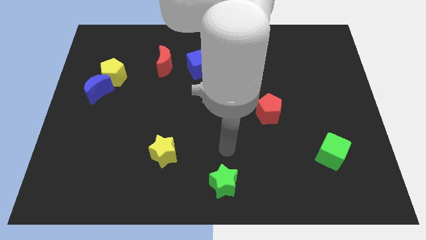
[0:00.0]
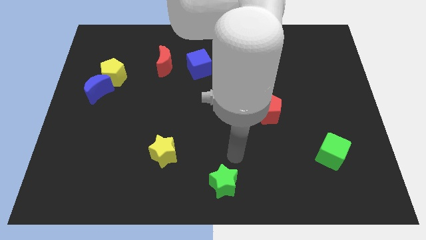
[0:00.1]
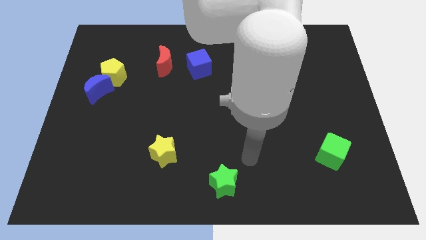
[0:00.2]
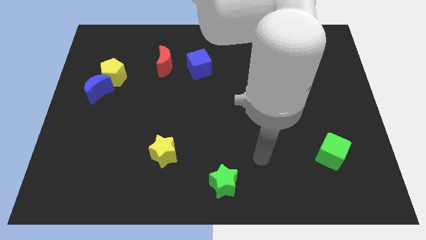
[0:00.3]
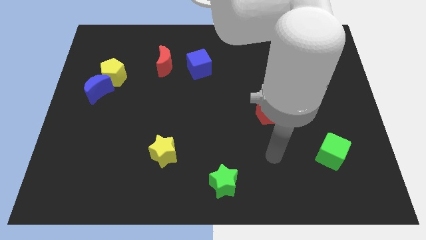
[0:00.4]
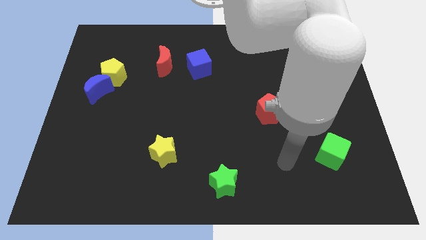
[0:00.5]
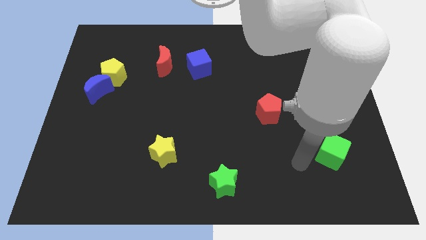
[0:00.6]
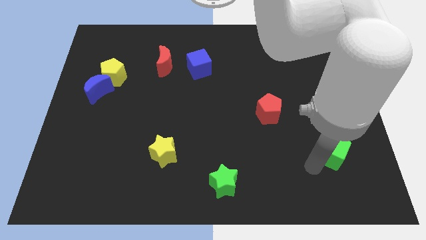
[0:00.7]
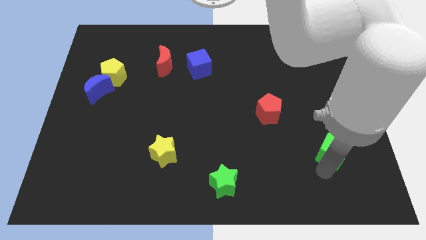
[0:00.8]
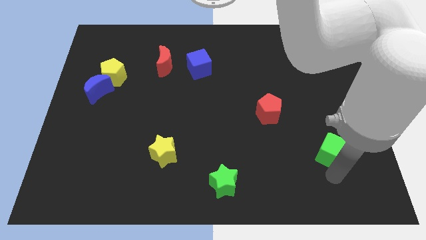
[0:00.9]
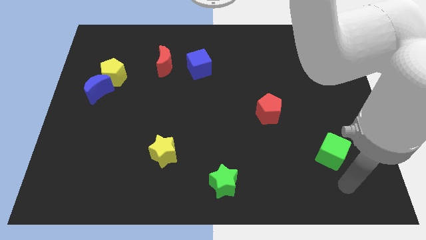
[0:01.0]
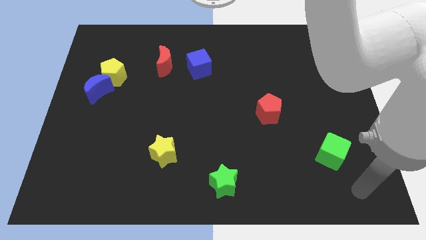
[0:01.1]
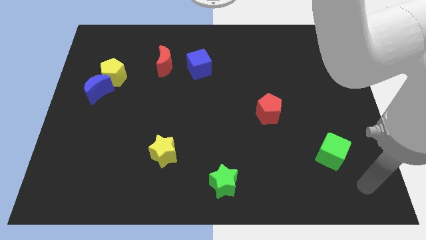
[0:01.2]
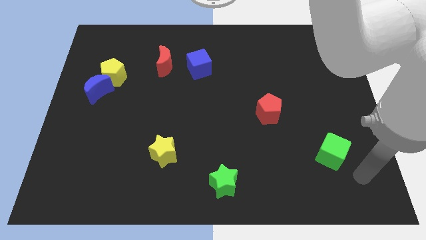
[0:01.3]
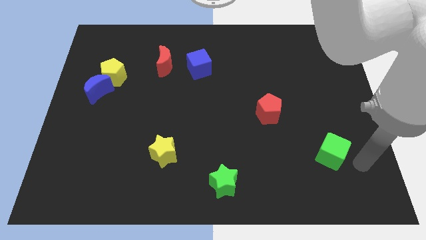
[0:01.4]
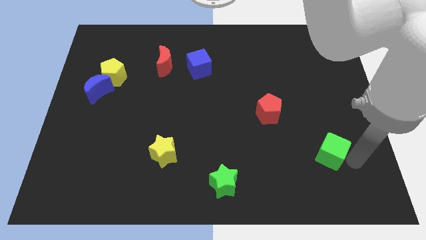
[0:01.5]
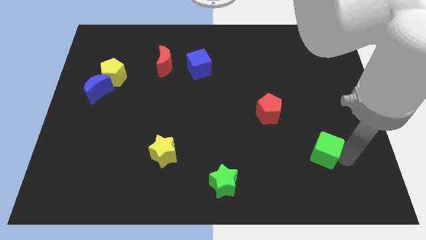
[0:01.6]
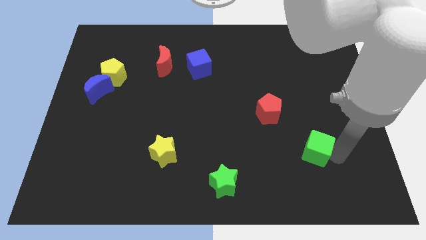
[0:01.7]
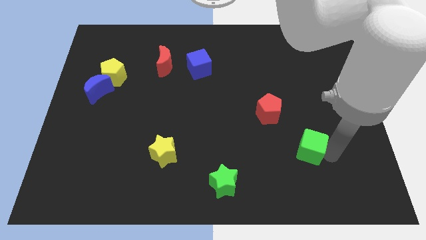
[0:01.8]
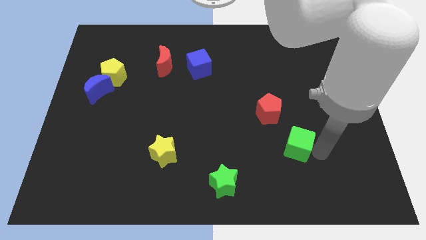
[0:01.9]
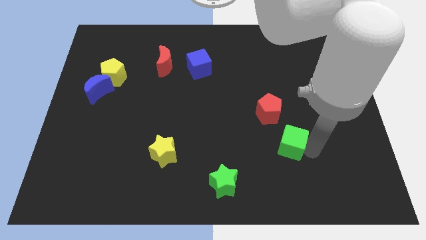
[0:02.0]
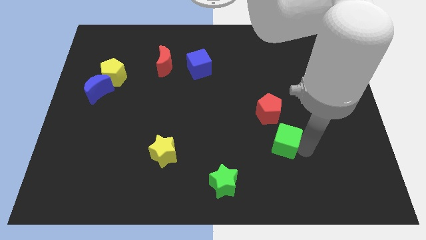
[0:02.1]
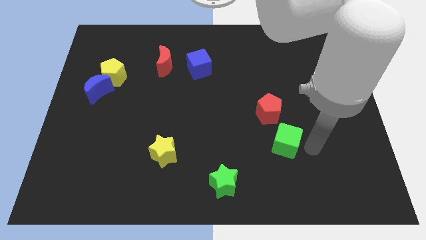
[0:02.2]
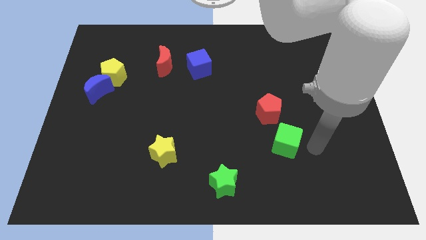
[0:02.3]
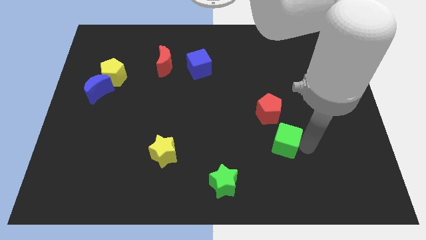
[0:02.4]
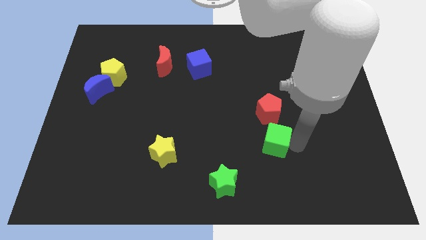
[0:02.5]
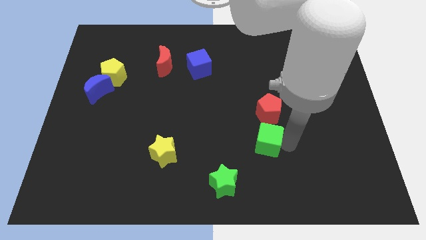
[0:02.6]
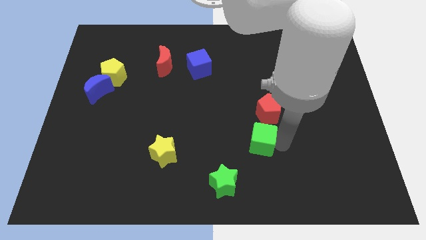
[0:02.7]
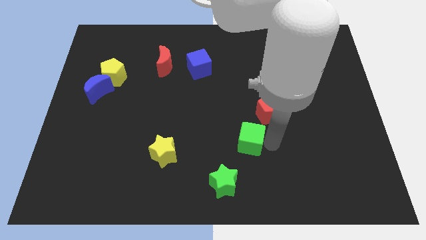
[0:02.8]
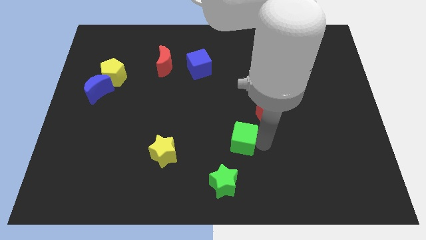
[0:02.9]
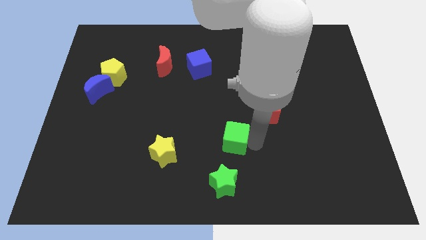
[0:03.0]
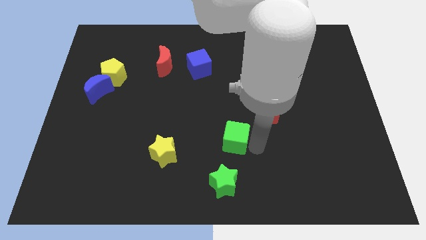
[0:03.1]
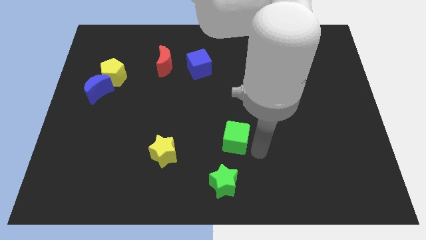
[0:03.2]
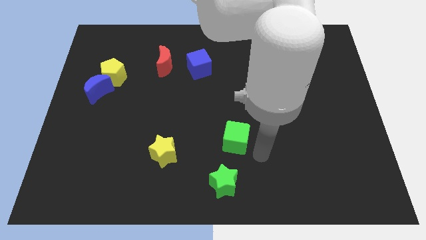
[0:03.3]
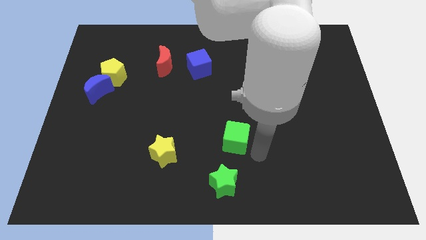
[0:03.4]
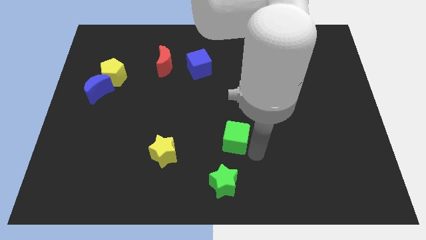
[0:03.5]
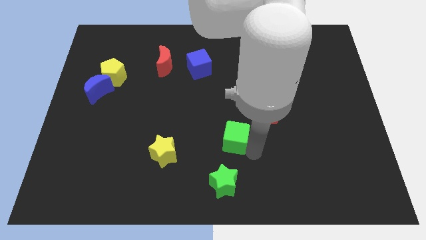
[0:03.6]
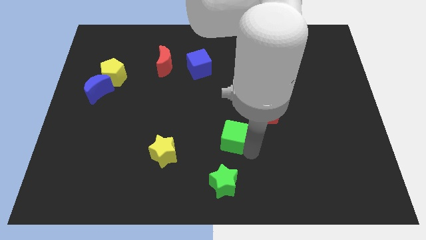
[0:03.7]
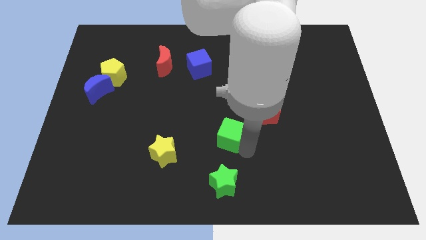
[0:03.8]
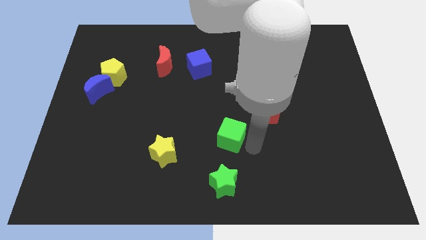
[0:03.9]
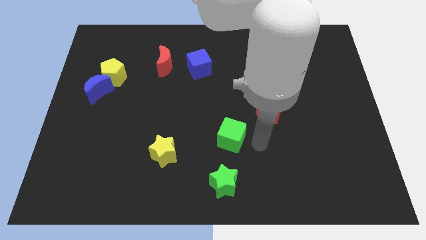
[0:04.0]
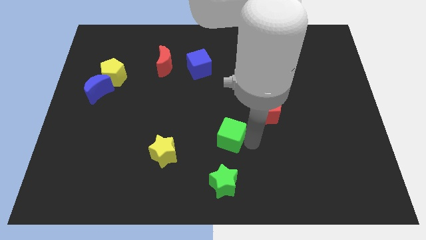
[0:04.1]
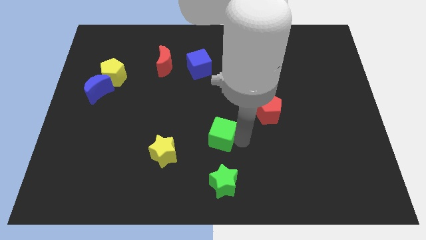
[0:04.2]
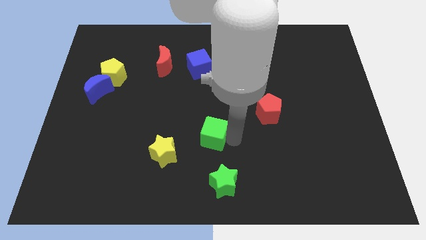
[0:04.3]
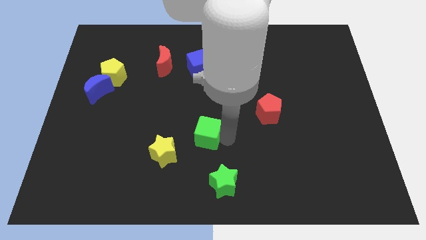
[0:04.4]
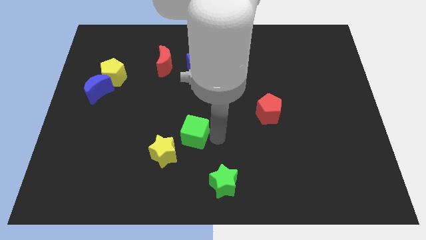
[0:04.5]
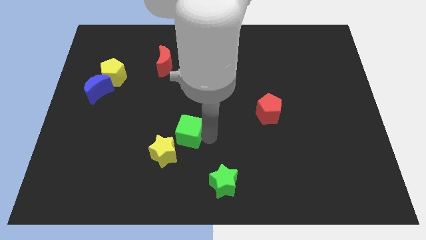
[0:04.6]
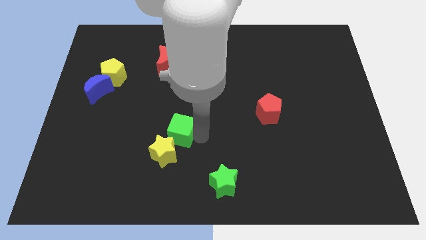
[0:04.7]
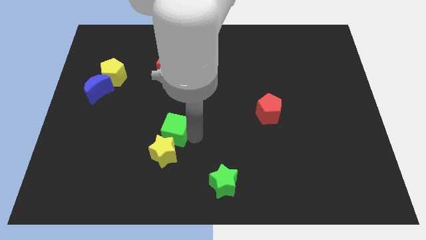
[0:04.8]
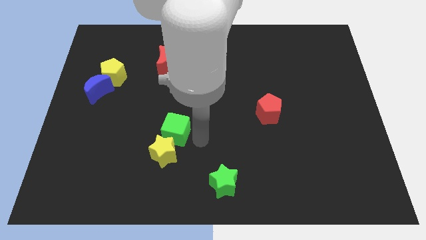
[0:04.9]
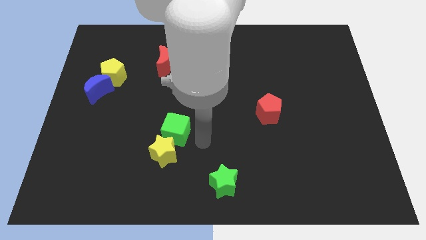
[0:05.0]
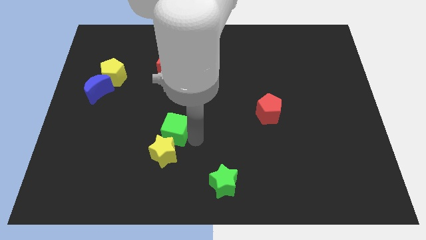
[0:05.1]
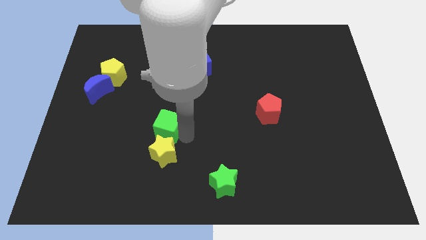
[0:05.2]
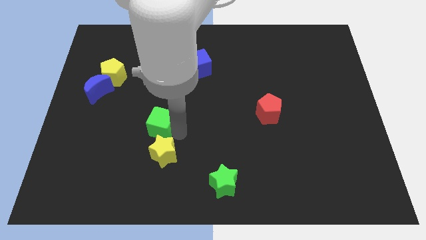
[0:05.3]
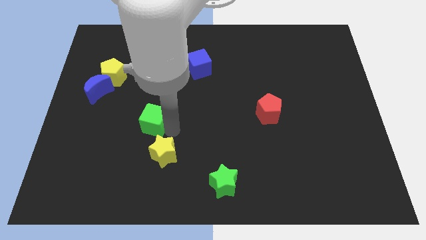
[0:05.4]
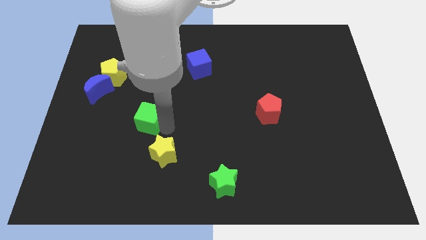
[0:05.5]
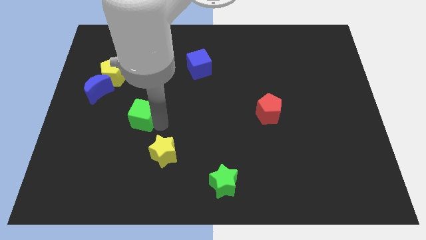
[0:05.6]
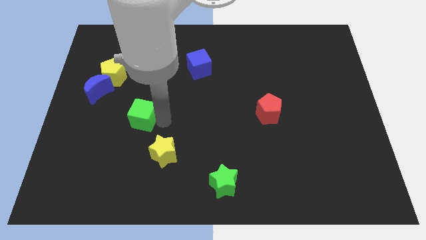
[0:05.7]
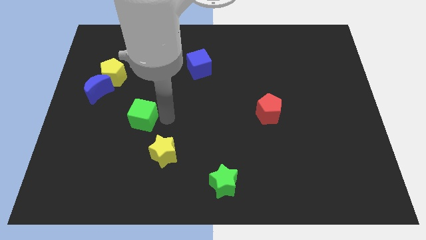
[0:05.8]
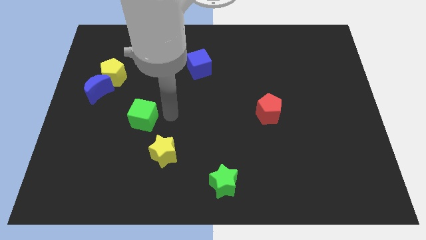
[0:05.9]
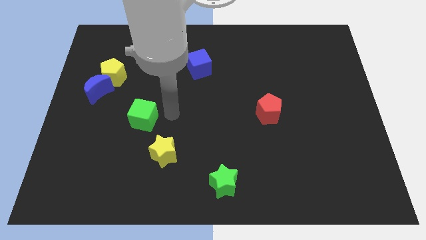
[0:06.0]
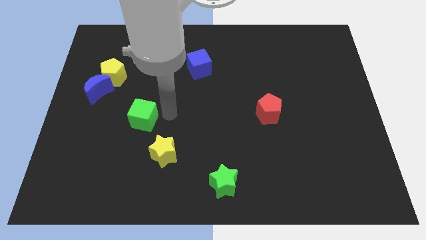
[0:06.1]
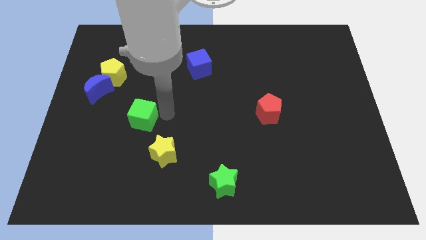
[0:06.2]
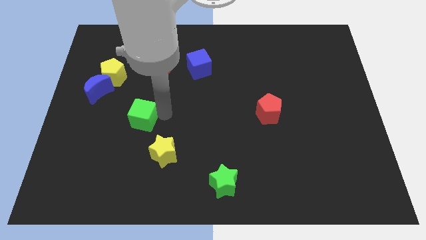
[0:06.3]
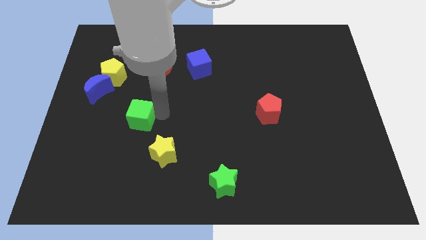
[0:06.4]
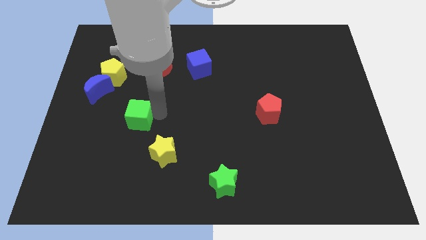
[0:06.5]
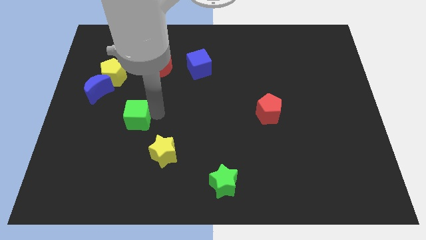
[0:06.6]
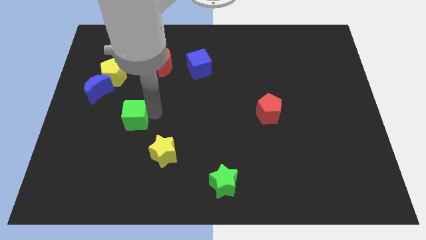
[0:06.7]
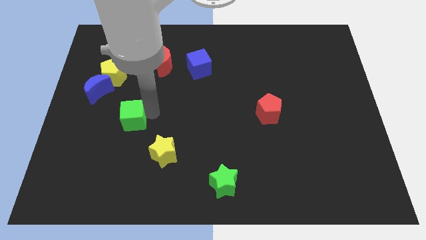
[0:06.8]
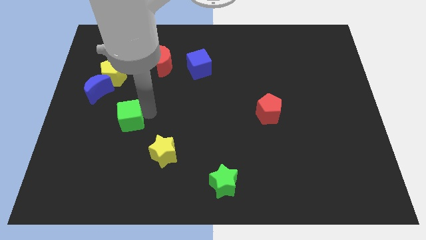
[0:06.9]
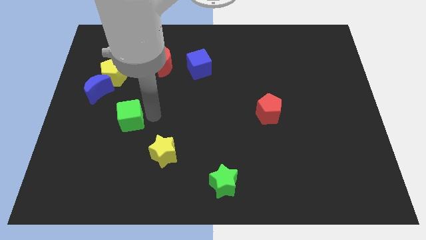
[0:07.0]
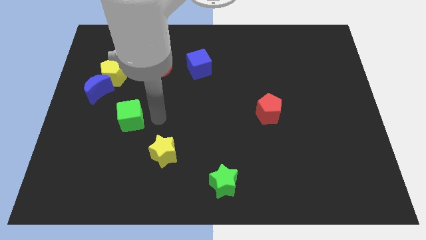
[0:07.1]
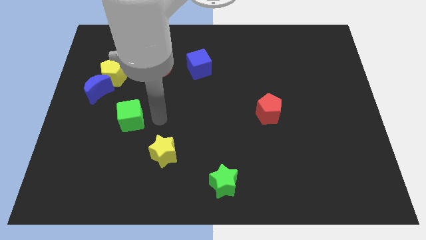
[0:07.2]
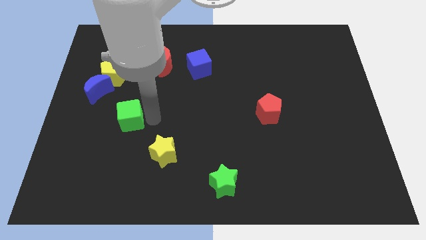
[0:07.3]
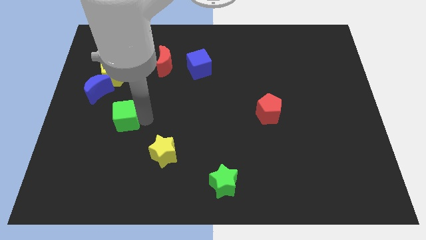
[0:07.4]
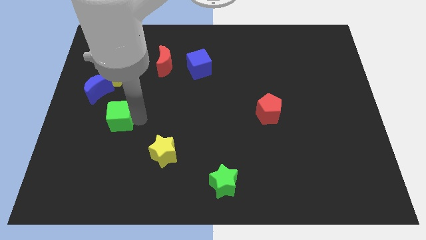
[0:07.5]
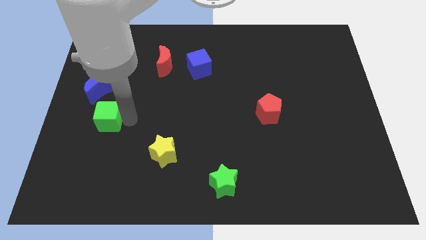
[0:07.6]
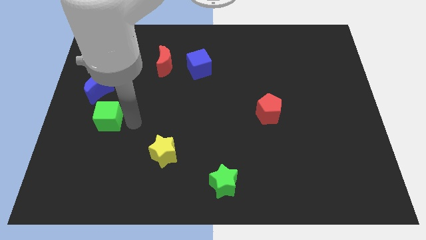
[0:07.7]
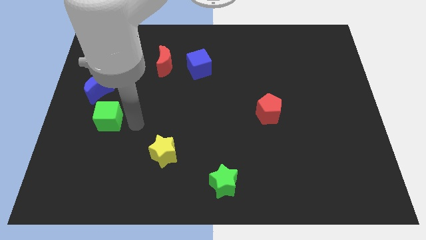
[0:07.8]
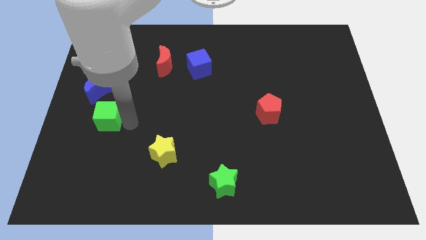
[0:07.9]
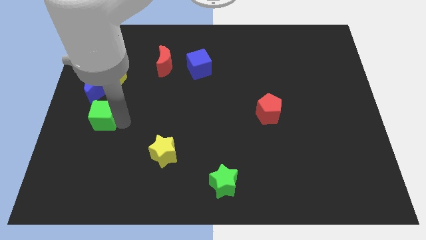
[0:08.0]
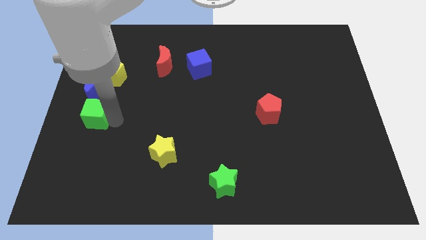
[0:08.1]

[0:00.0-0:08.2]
push the green cube to the center left
